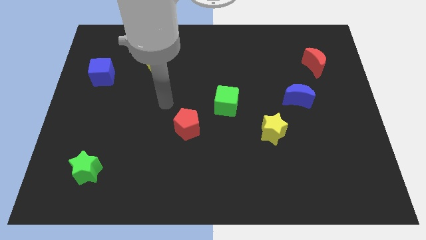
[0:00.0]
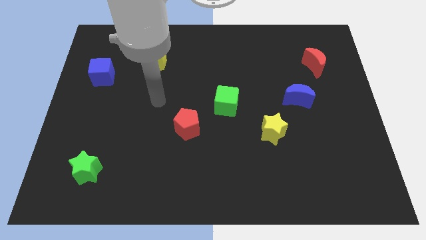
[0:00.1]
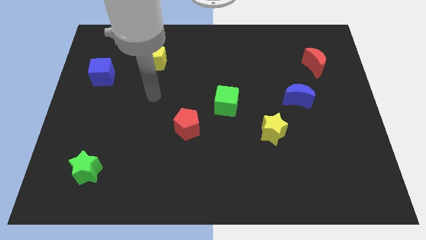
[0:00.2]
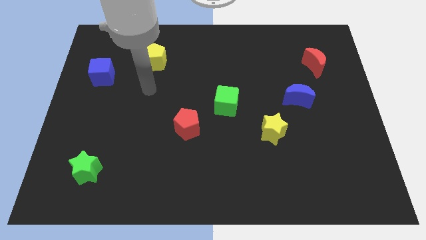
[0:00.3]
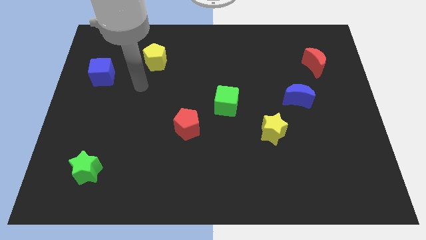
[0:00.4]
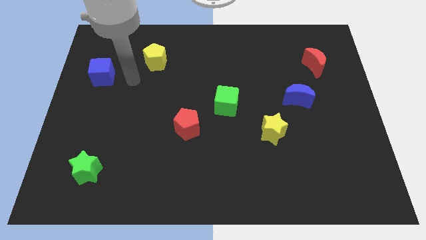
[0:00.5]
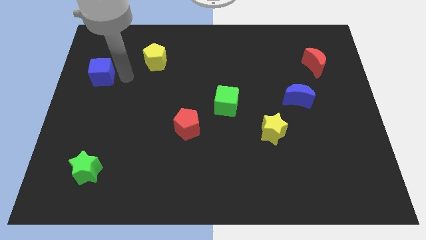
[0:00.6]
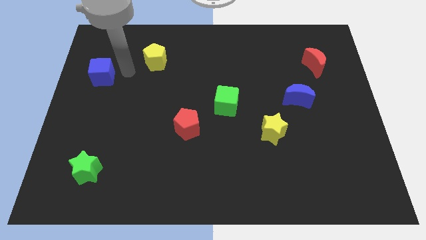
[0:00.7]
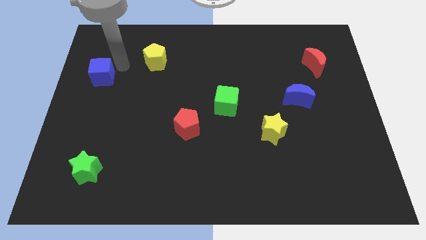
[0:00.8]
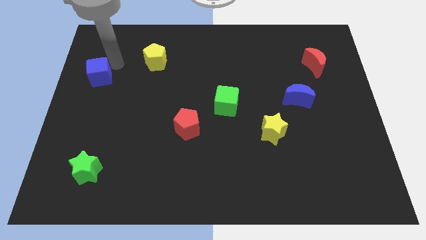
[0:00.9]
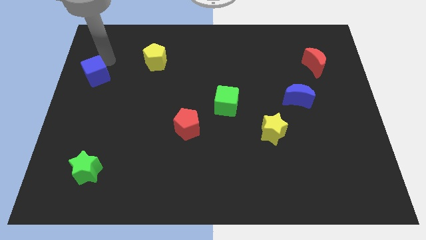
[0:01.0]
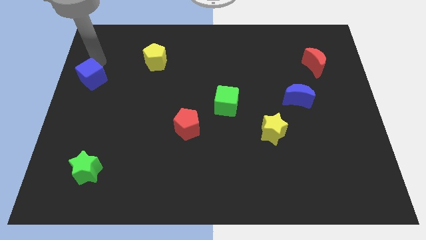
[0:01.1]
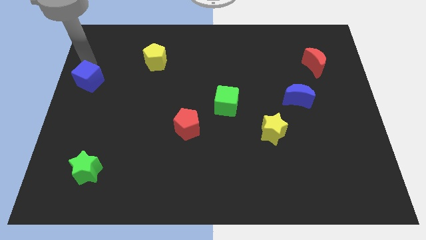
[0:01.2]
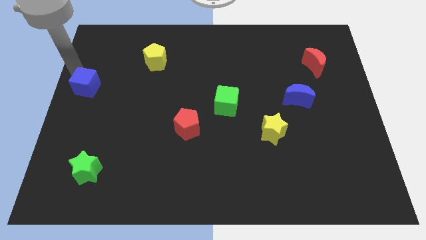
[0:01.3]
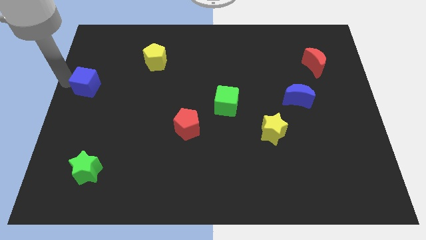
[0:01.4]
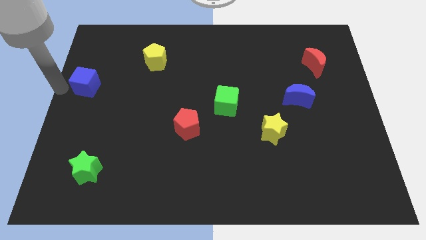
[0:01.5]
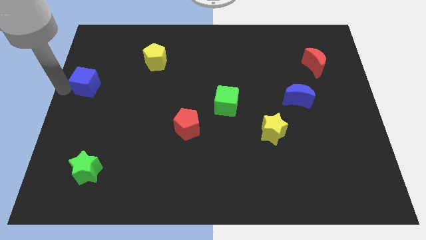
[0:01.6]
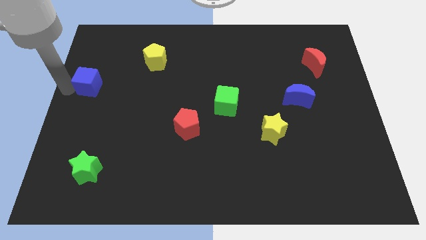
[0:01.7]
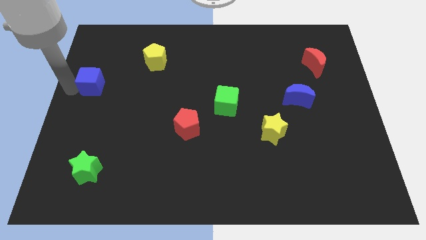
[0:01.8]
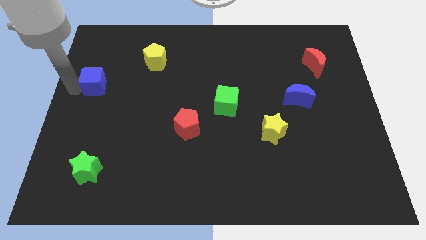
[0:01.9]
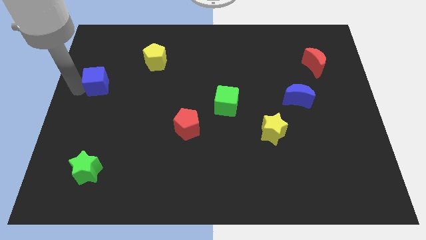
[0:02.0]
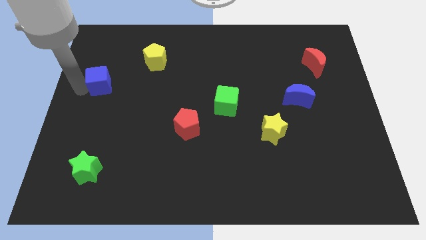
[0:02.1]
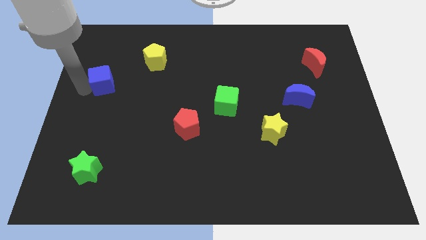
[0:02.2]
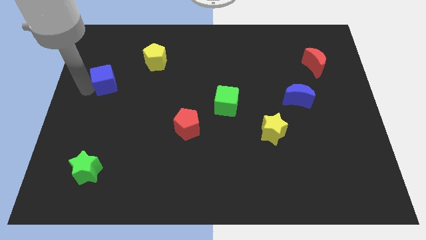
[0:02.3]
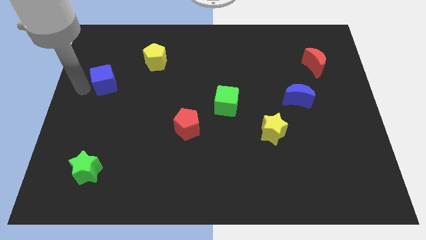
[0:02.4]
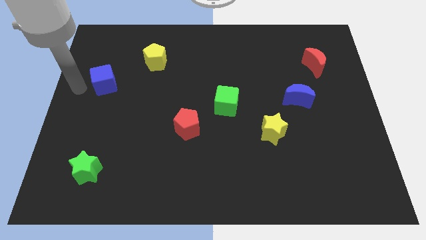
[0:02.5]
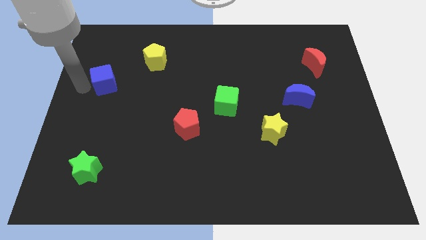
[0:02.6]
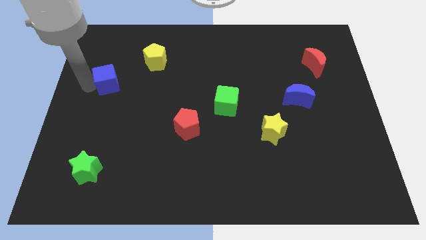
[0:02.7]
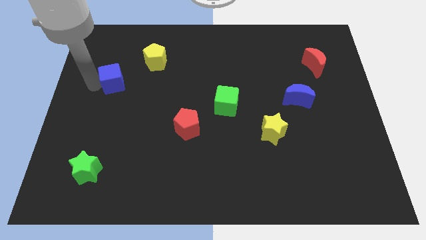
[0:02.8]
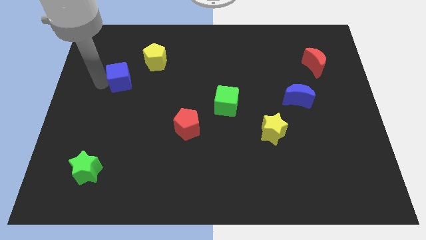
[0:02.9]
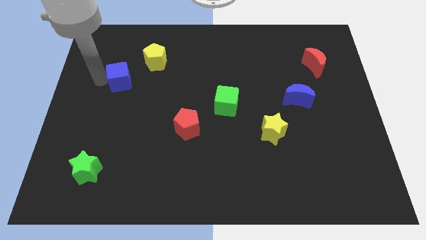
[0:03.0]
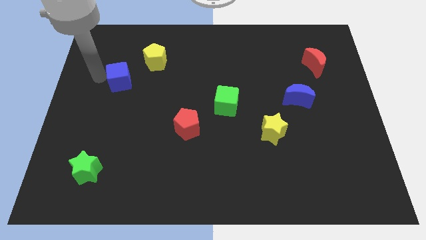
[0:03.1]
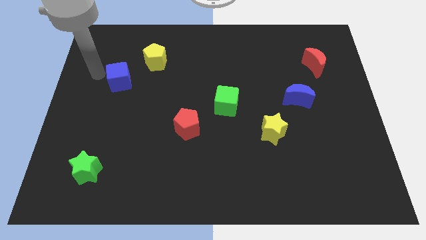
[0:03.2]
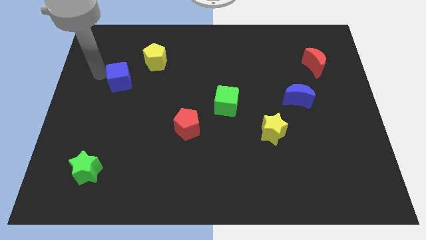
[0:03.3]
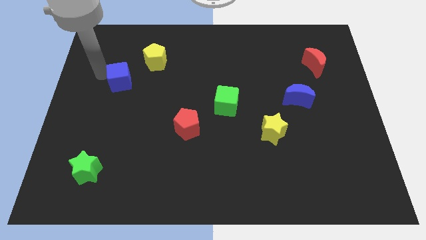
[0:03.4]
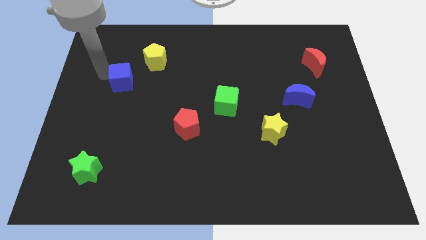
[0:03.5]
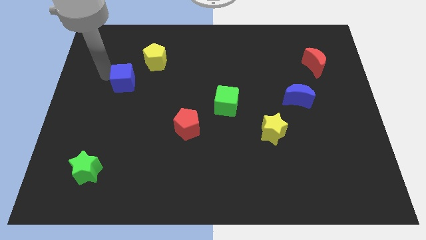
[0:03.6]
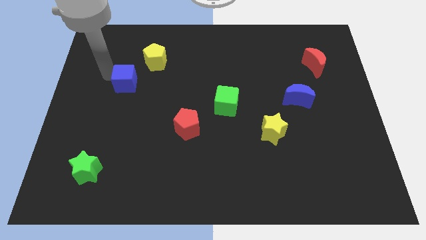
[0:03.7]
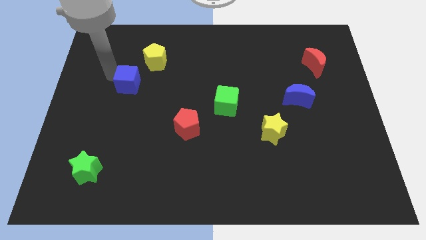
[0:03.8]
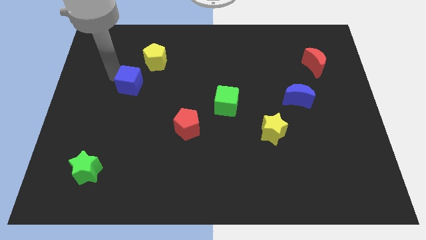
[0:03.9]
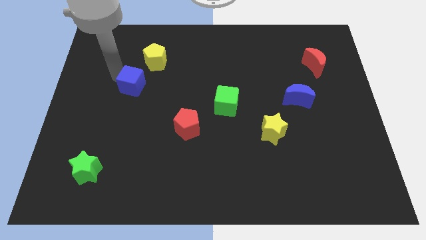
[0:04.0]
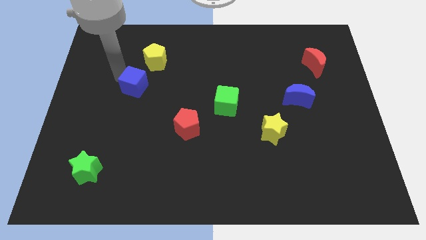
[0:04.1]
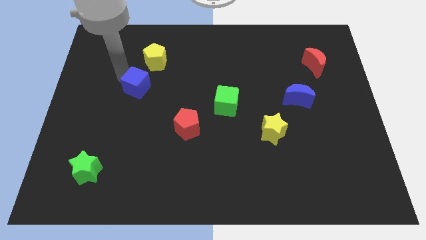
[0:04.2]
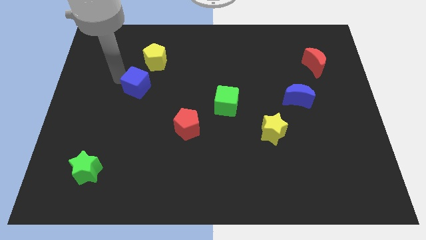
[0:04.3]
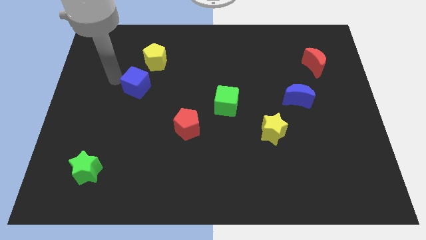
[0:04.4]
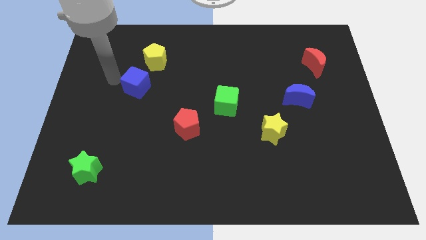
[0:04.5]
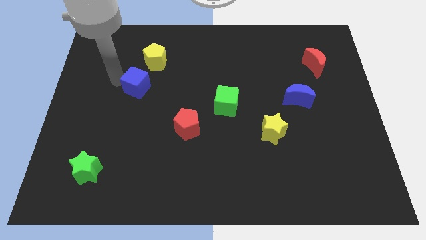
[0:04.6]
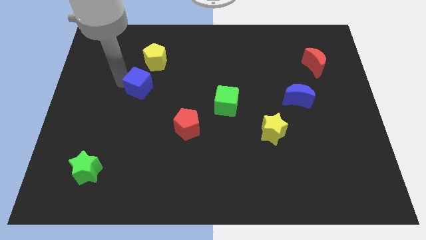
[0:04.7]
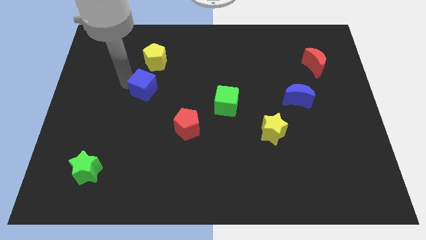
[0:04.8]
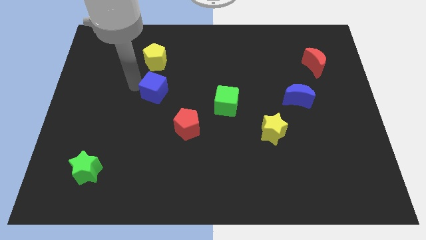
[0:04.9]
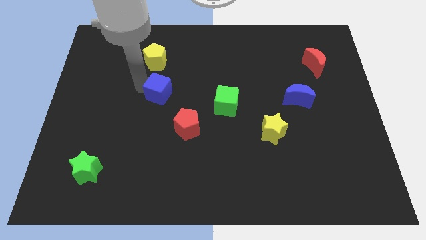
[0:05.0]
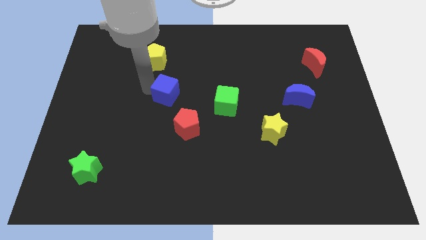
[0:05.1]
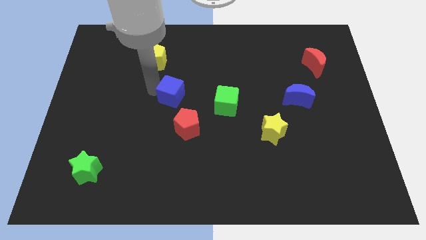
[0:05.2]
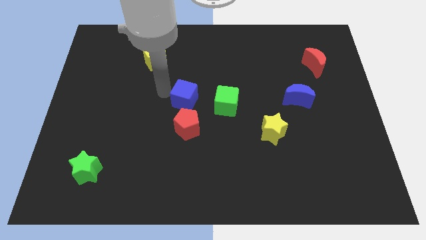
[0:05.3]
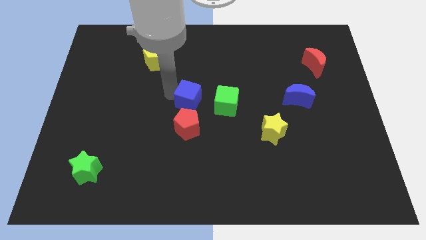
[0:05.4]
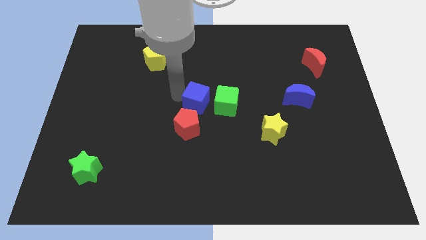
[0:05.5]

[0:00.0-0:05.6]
slide the blue cube to the top right side of the red pentagon
